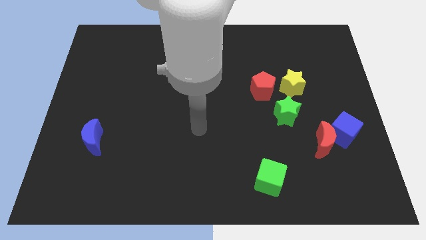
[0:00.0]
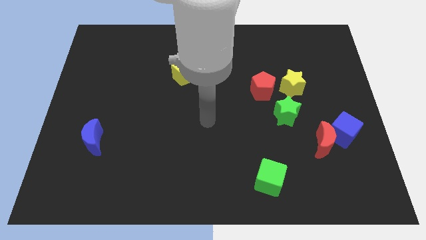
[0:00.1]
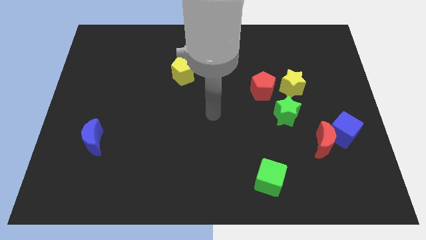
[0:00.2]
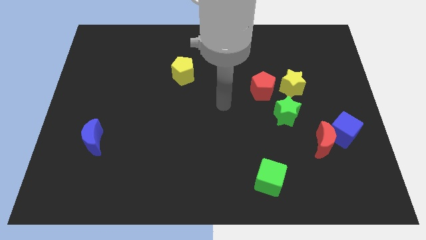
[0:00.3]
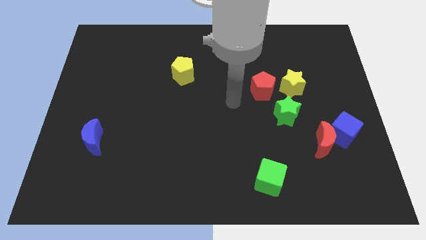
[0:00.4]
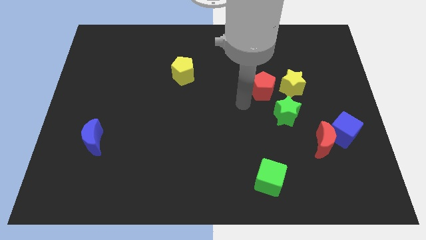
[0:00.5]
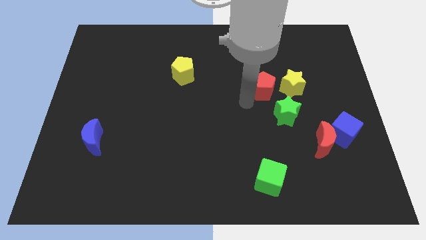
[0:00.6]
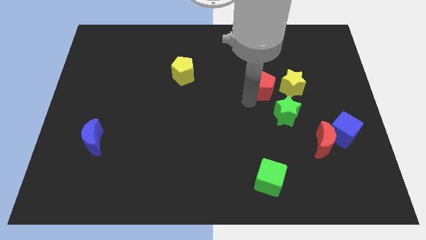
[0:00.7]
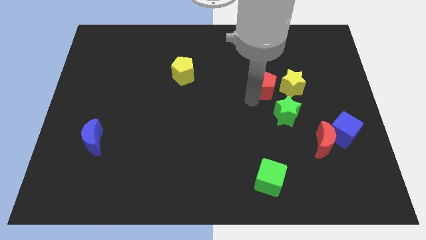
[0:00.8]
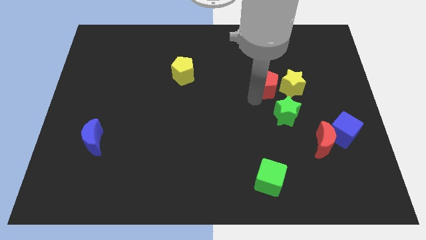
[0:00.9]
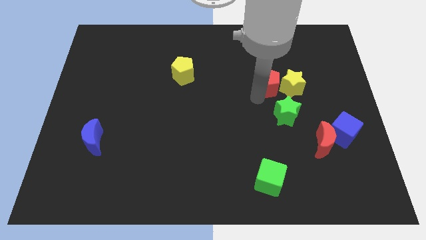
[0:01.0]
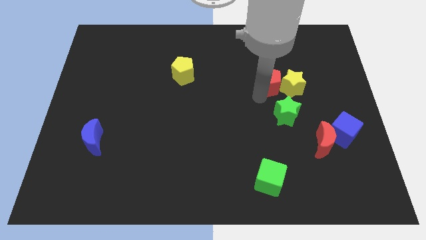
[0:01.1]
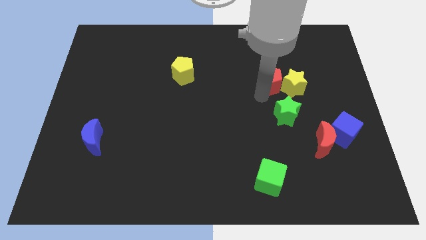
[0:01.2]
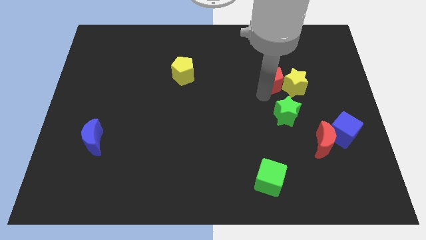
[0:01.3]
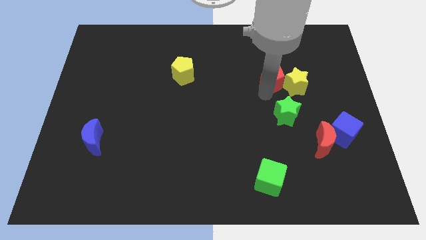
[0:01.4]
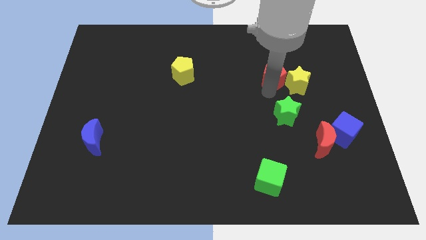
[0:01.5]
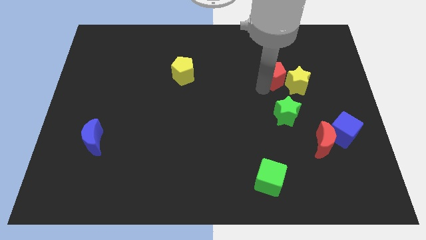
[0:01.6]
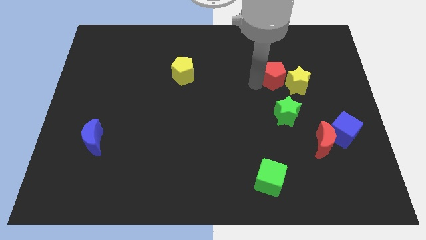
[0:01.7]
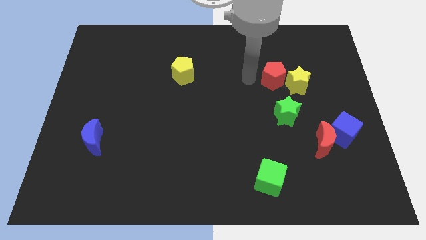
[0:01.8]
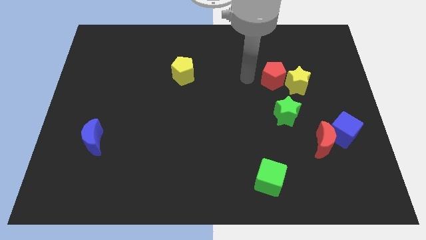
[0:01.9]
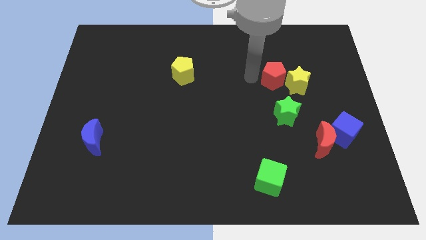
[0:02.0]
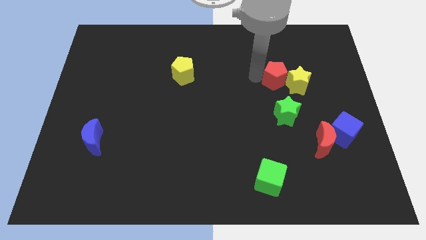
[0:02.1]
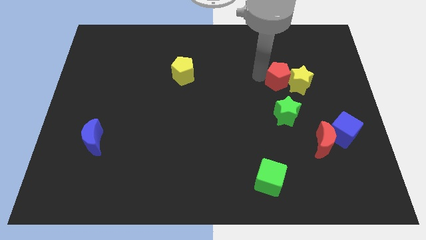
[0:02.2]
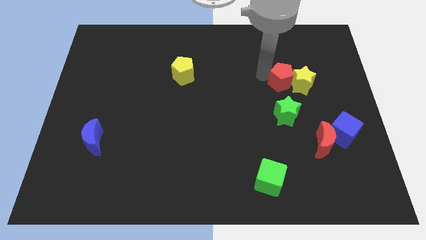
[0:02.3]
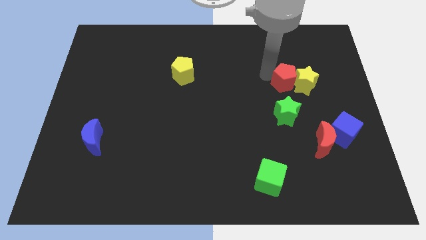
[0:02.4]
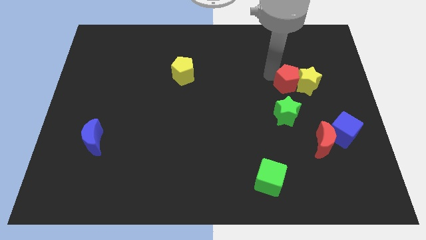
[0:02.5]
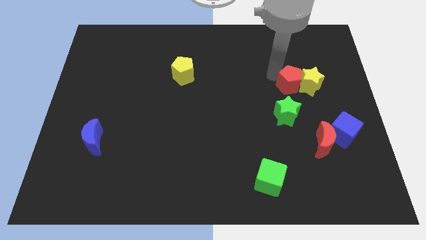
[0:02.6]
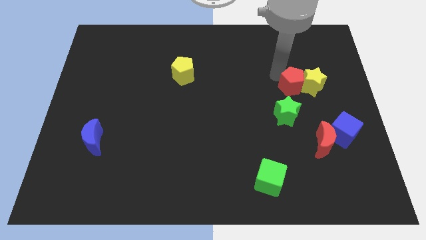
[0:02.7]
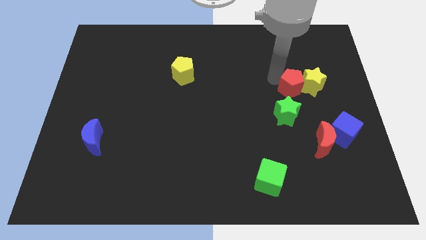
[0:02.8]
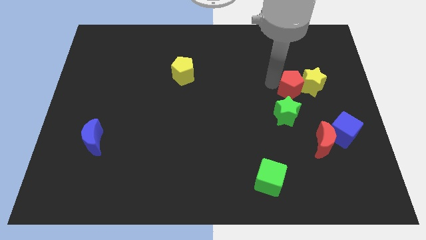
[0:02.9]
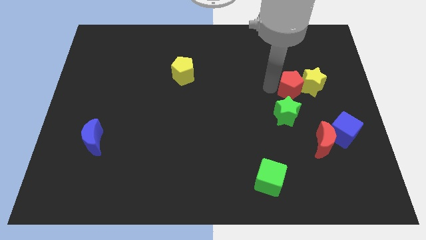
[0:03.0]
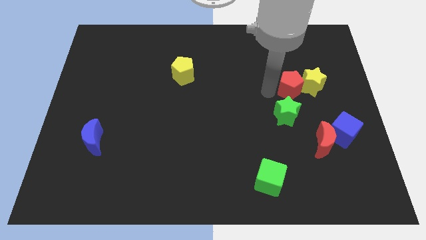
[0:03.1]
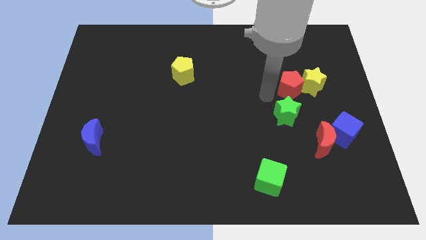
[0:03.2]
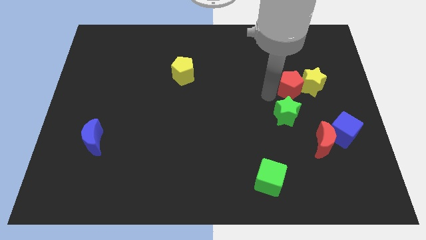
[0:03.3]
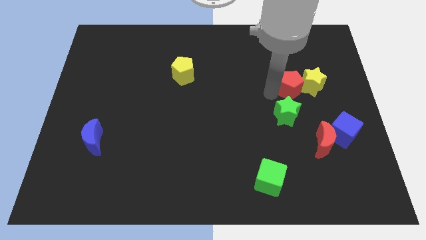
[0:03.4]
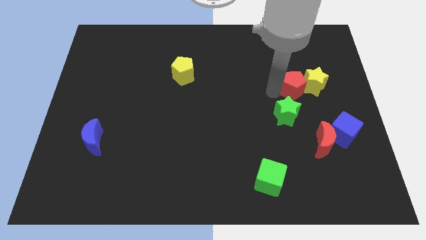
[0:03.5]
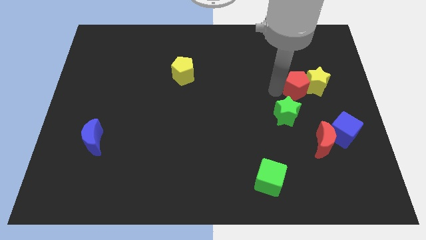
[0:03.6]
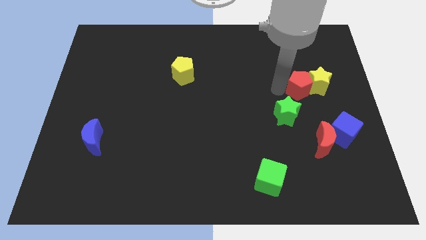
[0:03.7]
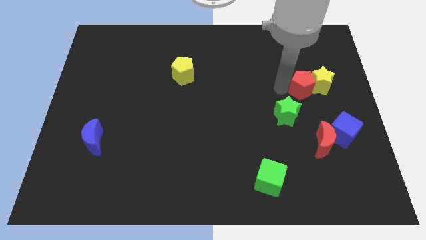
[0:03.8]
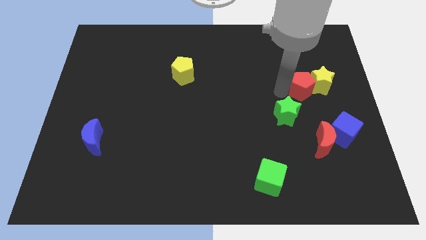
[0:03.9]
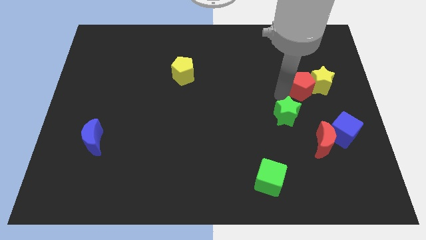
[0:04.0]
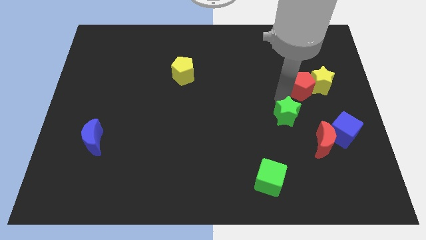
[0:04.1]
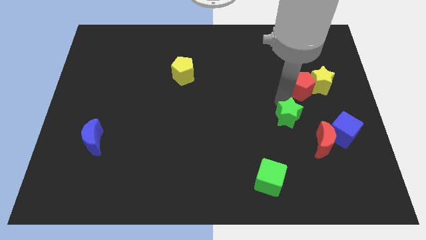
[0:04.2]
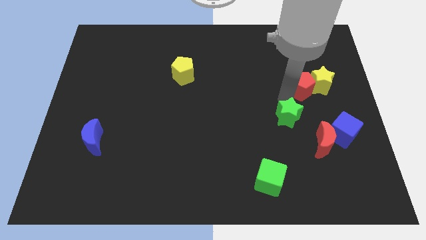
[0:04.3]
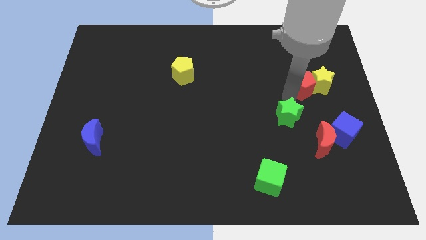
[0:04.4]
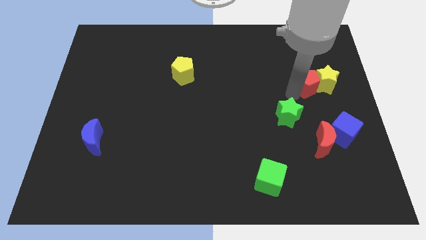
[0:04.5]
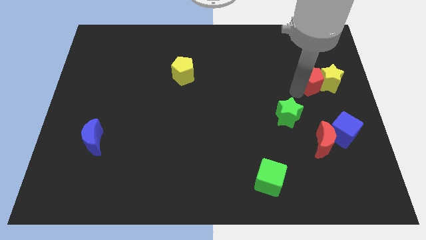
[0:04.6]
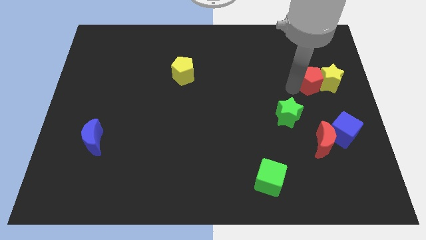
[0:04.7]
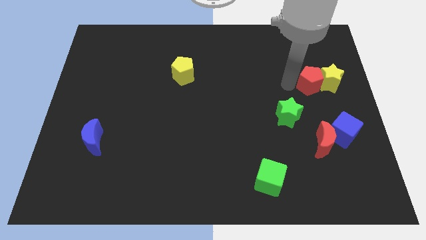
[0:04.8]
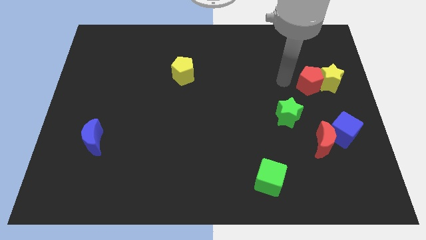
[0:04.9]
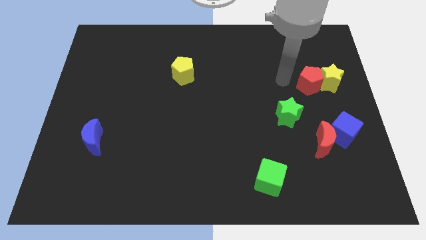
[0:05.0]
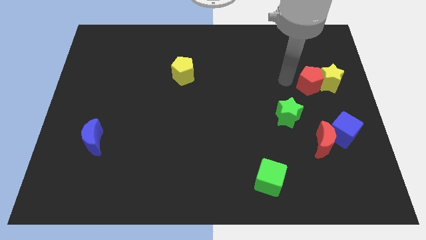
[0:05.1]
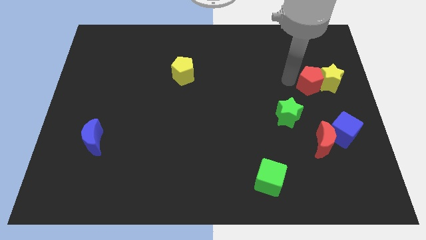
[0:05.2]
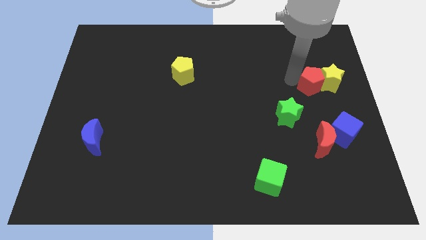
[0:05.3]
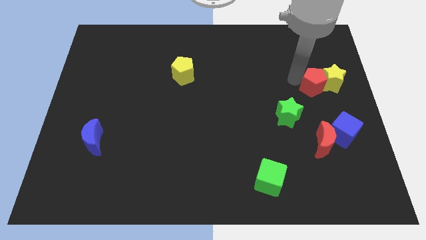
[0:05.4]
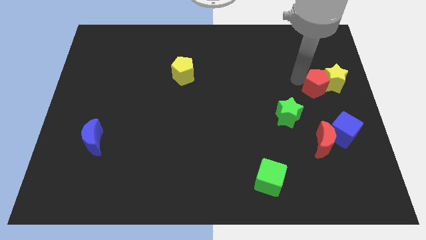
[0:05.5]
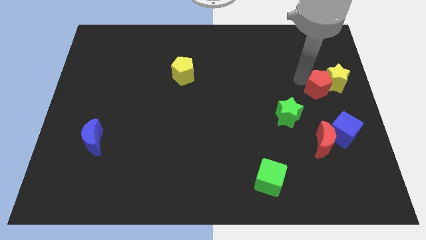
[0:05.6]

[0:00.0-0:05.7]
push the red pentagon to the center right
